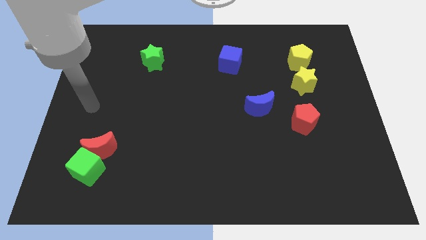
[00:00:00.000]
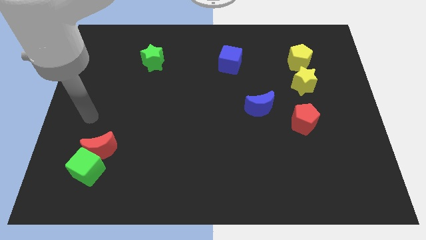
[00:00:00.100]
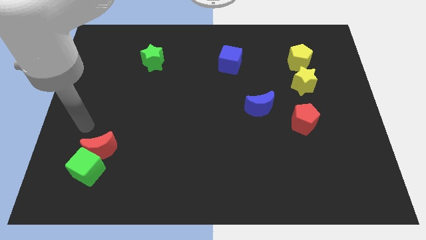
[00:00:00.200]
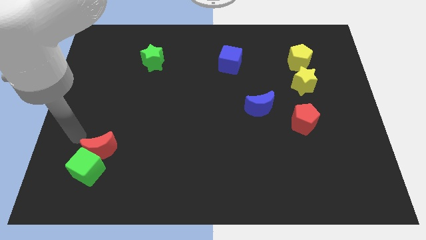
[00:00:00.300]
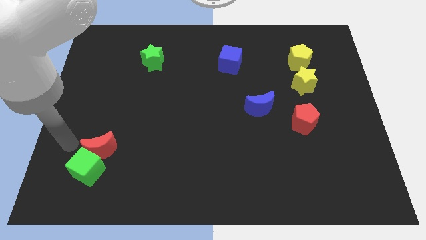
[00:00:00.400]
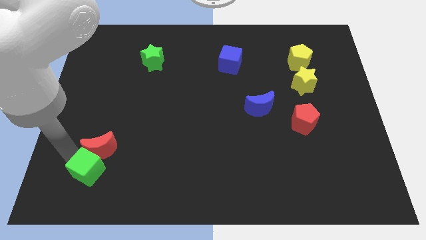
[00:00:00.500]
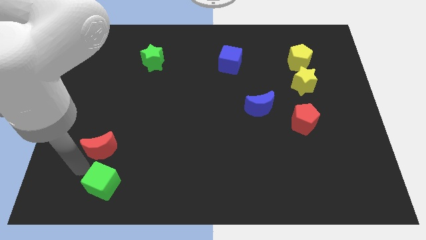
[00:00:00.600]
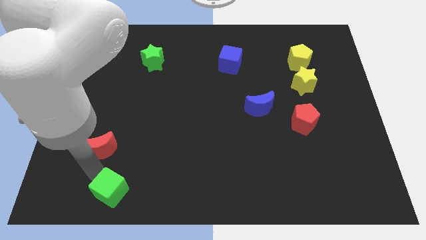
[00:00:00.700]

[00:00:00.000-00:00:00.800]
pull the red moon apart from the green cube

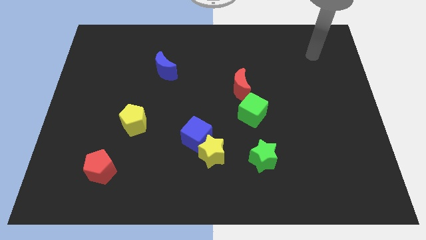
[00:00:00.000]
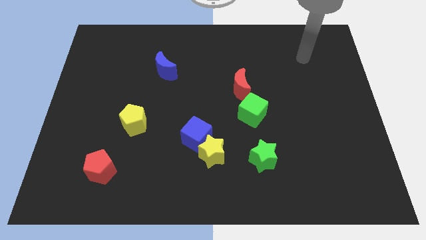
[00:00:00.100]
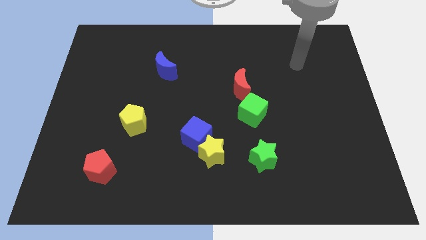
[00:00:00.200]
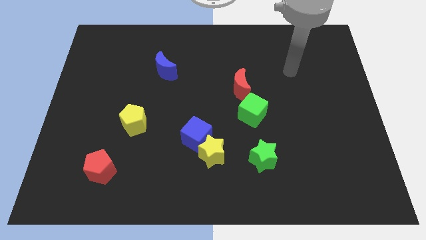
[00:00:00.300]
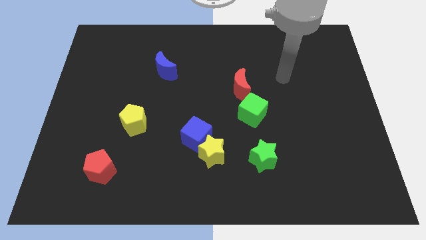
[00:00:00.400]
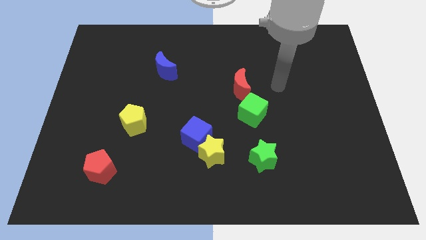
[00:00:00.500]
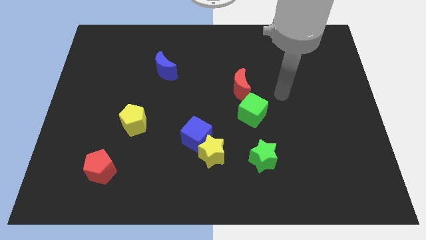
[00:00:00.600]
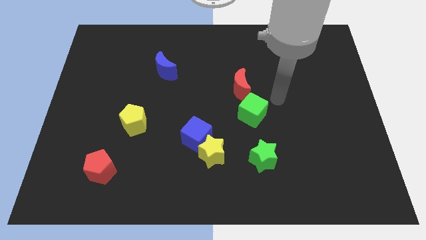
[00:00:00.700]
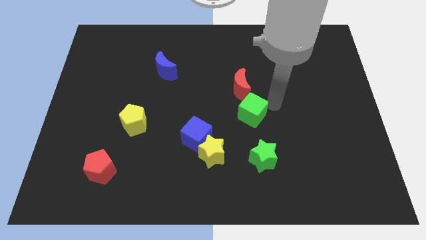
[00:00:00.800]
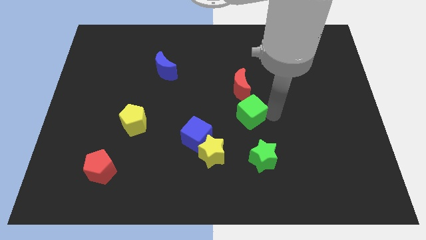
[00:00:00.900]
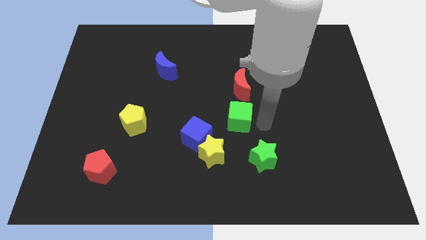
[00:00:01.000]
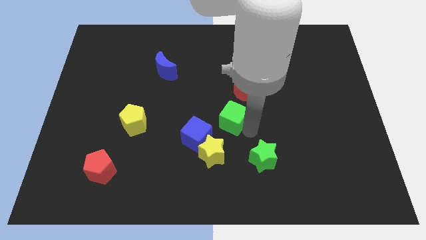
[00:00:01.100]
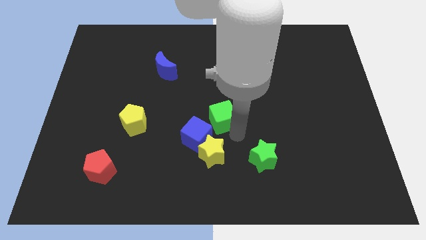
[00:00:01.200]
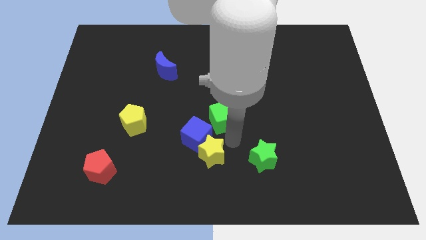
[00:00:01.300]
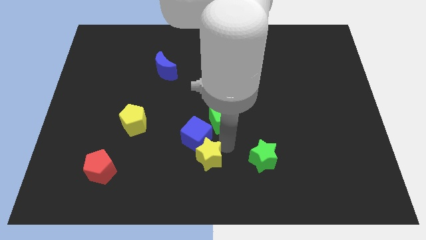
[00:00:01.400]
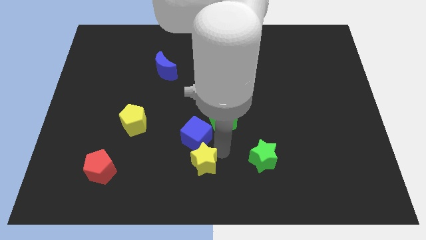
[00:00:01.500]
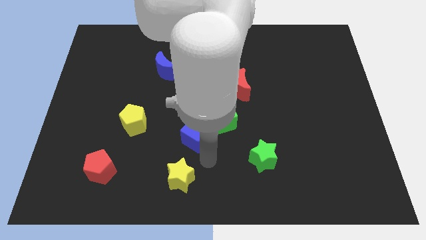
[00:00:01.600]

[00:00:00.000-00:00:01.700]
pull the blue cube apart from the yellow star

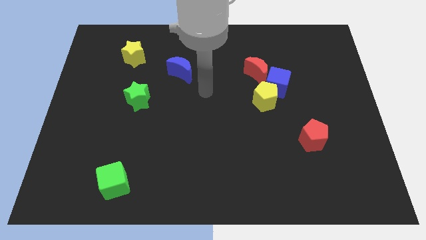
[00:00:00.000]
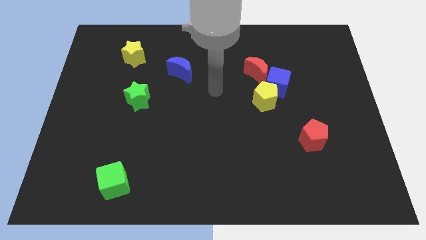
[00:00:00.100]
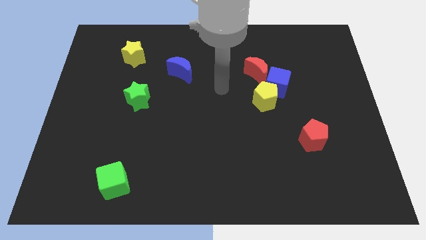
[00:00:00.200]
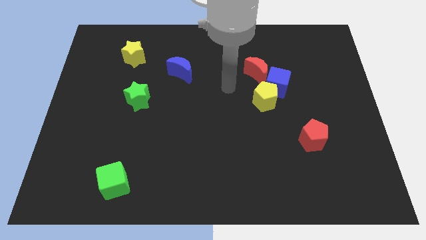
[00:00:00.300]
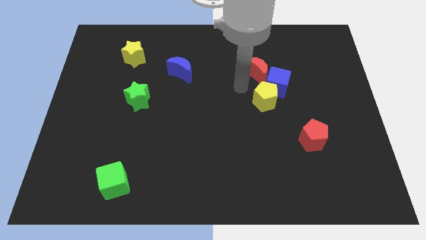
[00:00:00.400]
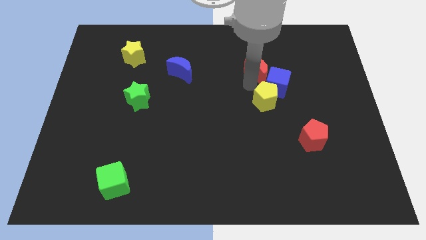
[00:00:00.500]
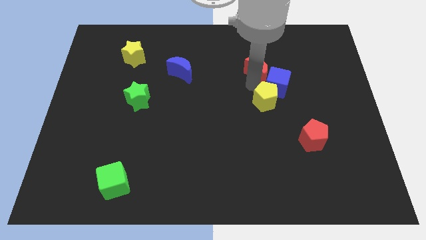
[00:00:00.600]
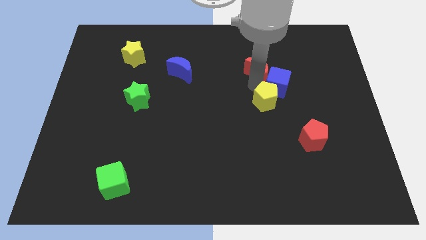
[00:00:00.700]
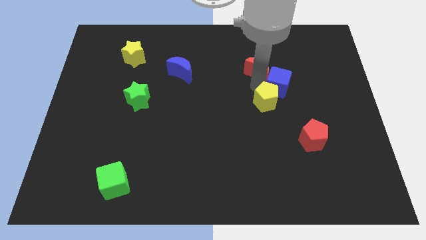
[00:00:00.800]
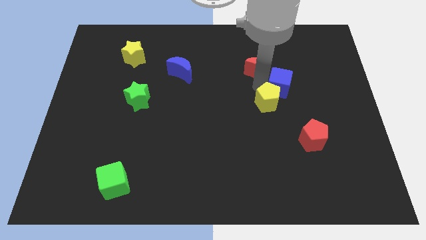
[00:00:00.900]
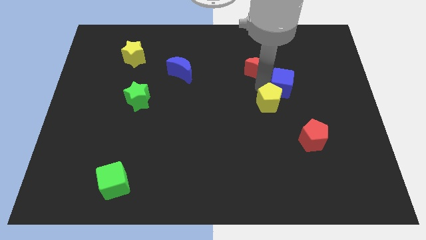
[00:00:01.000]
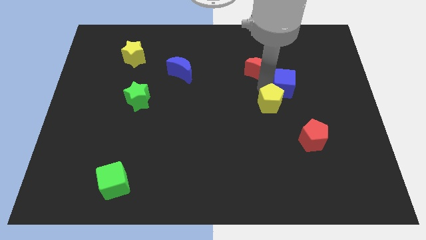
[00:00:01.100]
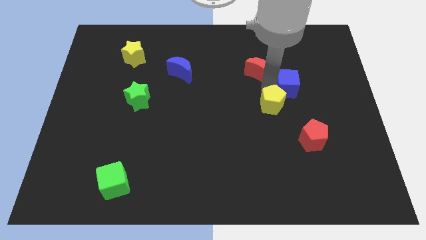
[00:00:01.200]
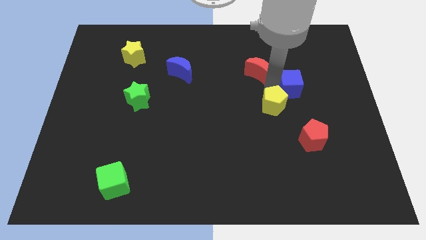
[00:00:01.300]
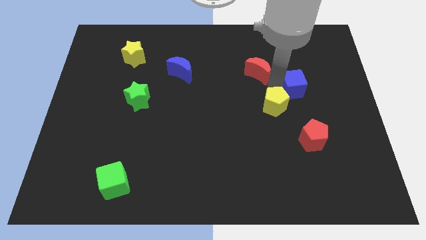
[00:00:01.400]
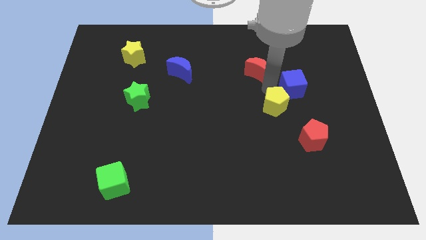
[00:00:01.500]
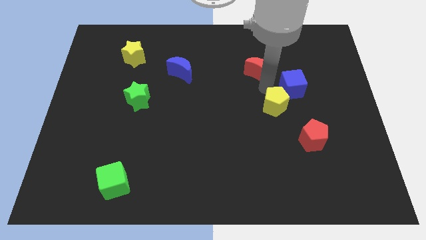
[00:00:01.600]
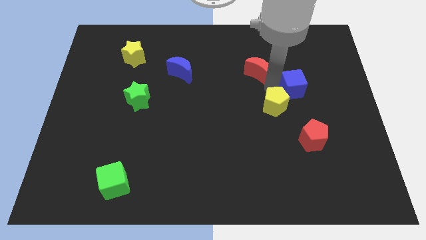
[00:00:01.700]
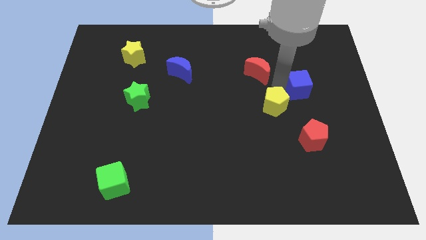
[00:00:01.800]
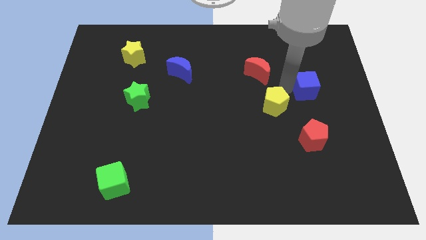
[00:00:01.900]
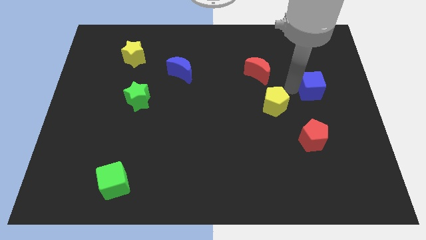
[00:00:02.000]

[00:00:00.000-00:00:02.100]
move the blue cube away from the yellow pentagon and red moon

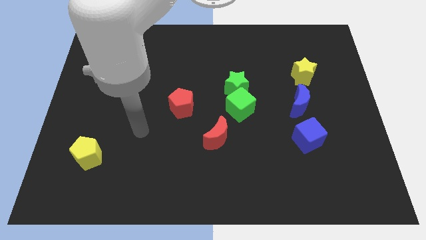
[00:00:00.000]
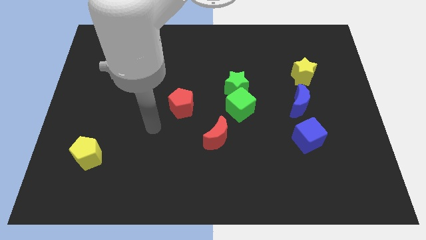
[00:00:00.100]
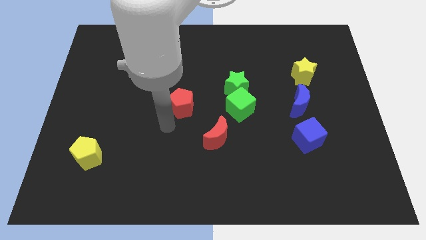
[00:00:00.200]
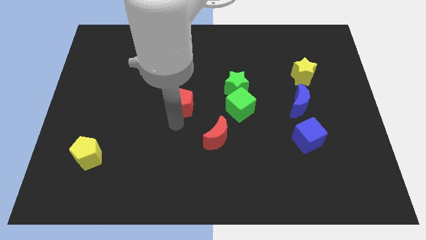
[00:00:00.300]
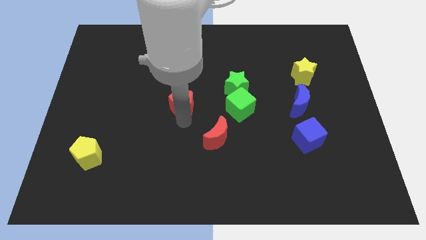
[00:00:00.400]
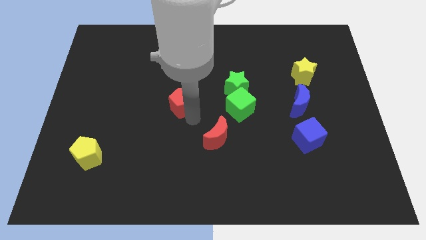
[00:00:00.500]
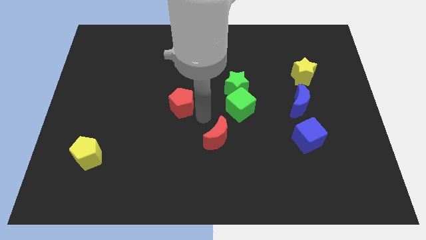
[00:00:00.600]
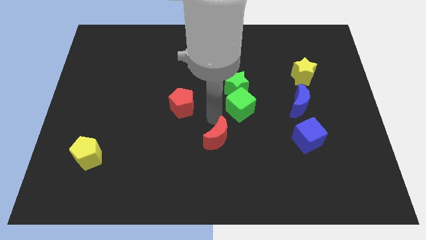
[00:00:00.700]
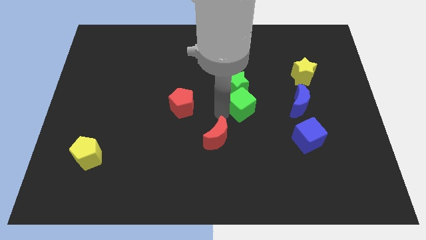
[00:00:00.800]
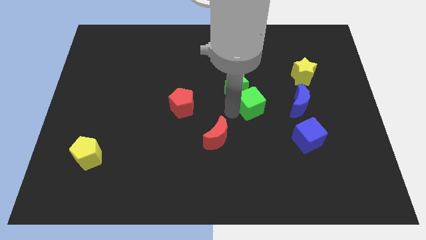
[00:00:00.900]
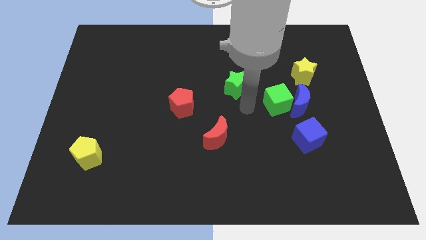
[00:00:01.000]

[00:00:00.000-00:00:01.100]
move the green star away from the green cube

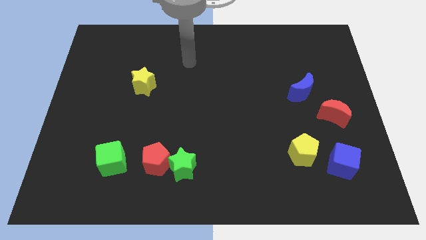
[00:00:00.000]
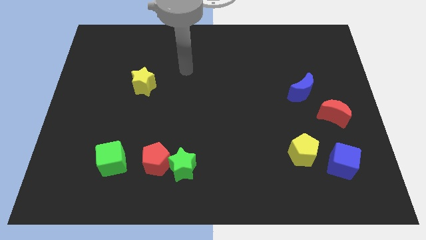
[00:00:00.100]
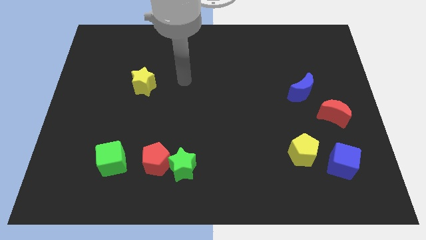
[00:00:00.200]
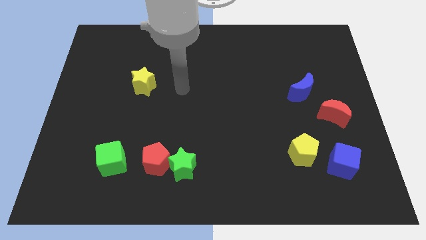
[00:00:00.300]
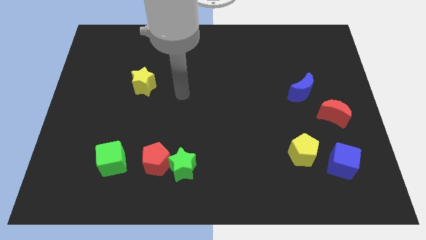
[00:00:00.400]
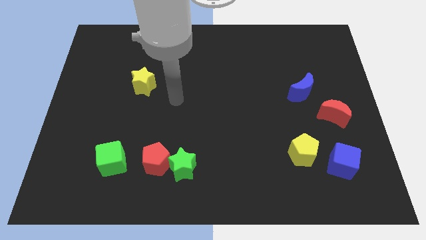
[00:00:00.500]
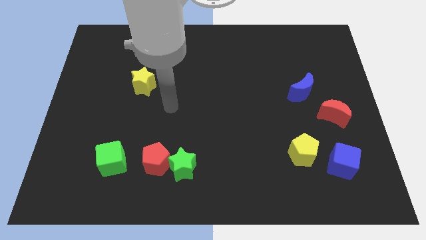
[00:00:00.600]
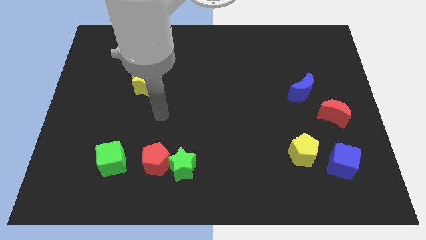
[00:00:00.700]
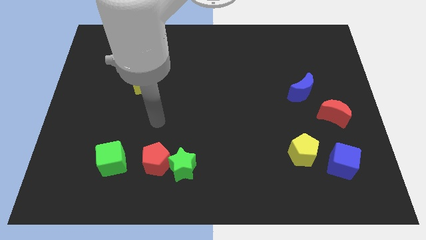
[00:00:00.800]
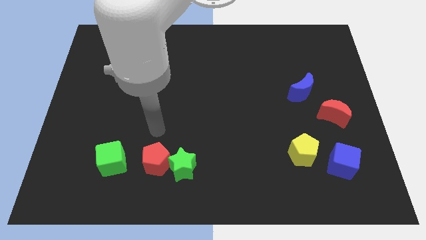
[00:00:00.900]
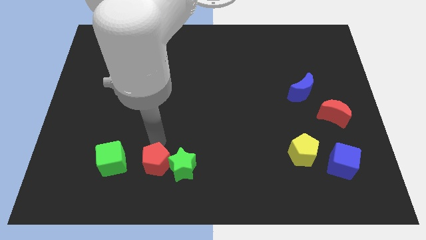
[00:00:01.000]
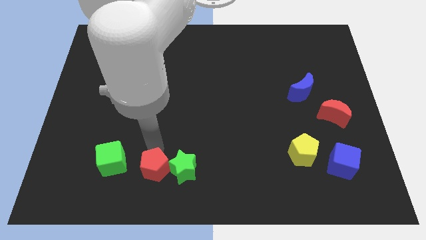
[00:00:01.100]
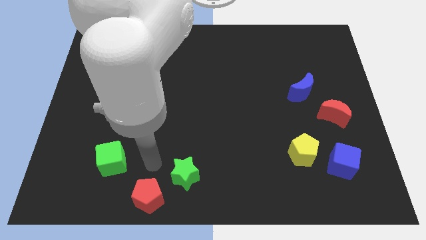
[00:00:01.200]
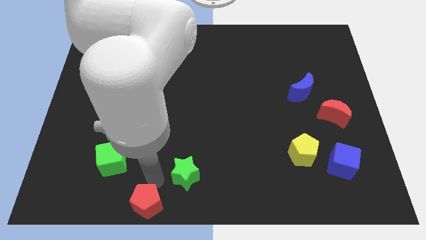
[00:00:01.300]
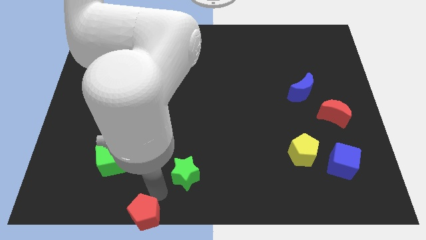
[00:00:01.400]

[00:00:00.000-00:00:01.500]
move the green star away from the red pentagon

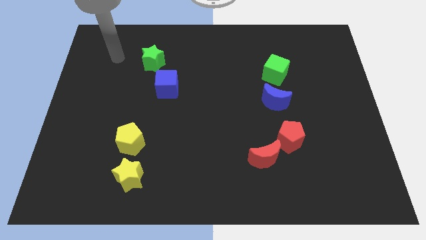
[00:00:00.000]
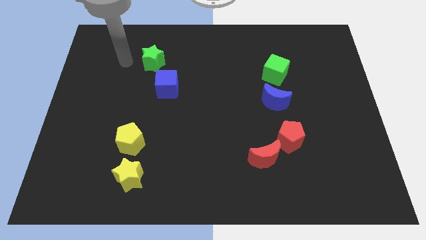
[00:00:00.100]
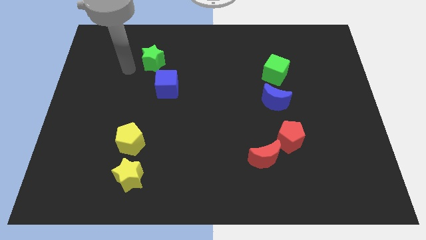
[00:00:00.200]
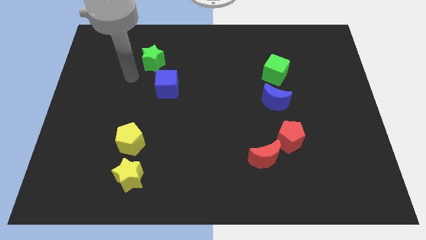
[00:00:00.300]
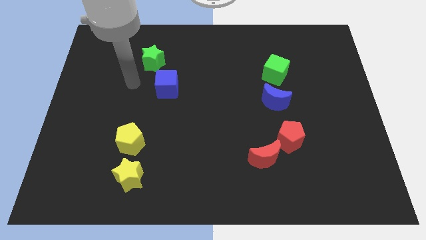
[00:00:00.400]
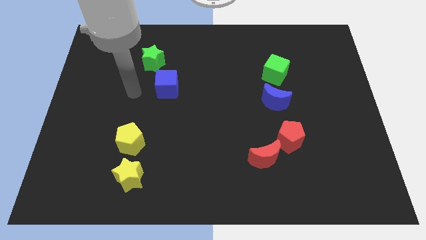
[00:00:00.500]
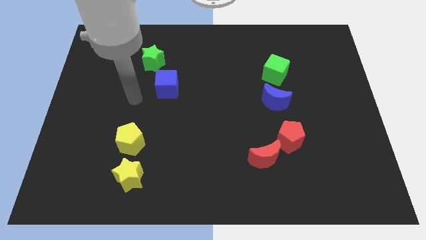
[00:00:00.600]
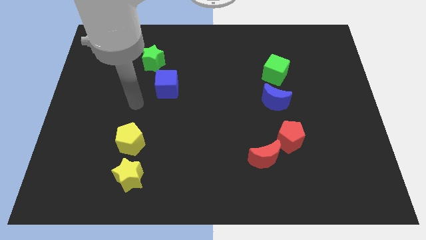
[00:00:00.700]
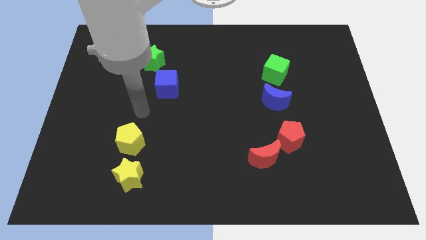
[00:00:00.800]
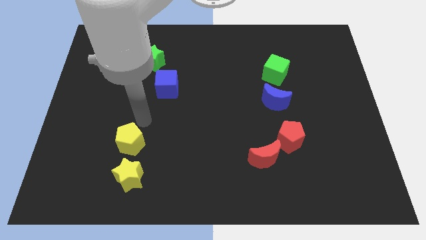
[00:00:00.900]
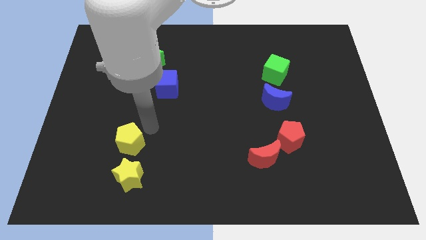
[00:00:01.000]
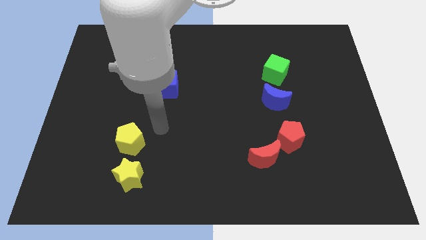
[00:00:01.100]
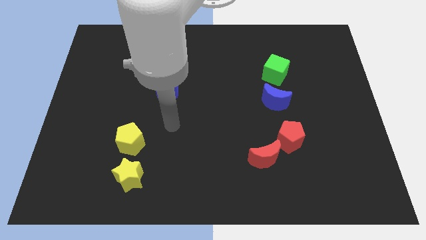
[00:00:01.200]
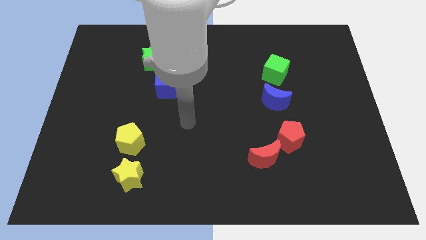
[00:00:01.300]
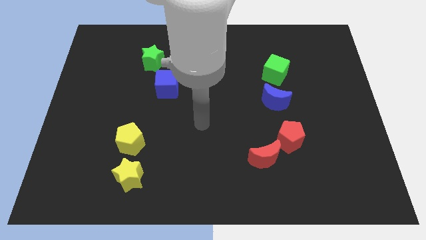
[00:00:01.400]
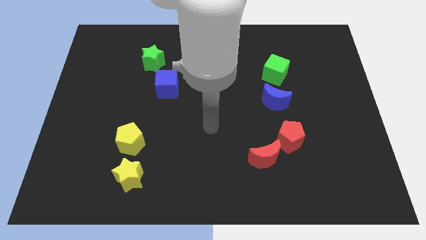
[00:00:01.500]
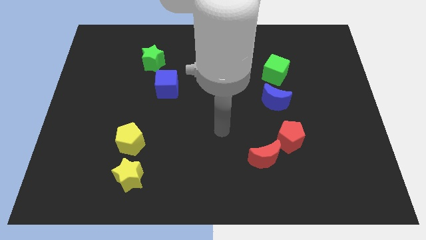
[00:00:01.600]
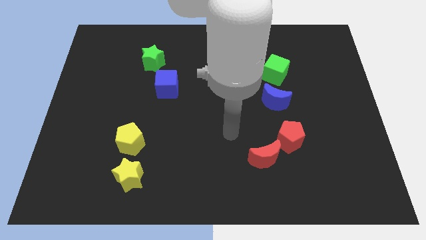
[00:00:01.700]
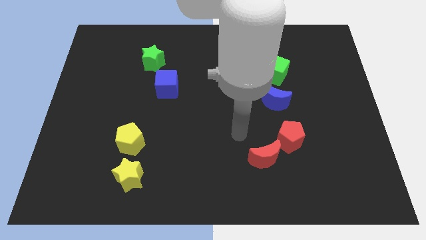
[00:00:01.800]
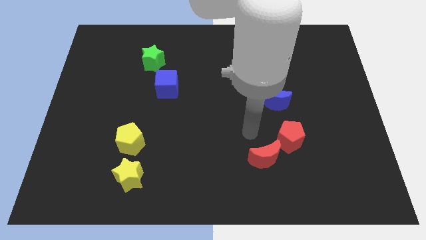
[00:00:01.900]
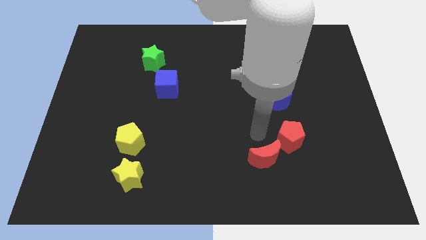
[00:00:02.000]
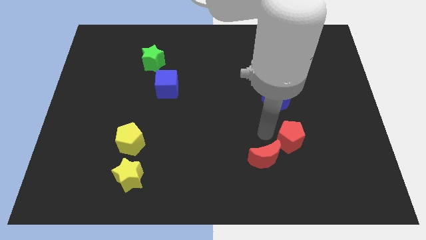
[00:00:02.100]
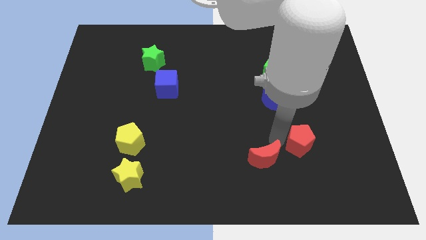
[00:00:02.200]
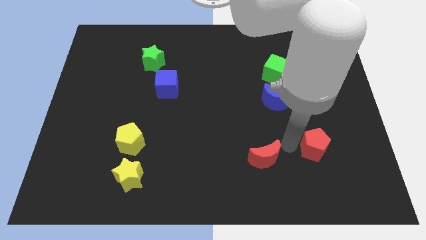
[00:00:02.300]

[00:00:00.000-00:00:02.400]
pull the red moon apart from the red pentagon
